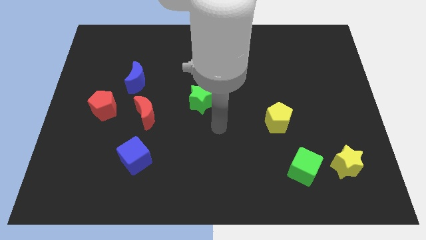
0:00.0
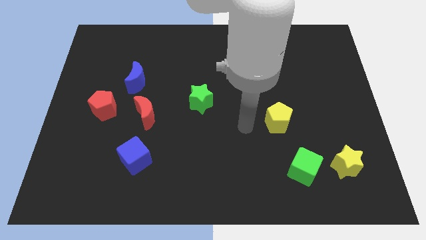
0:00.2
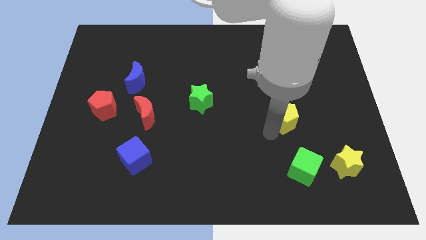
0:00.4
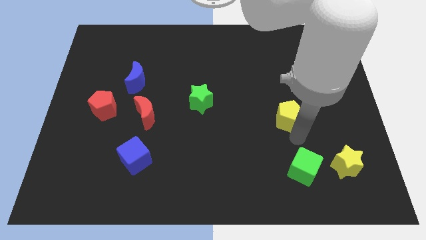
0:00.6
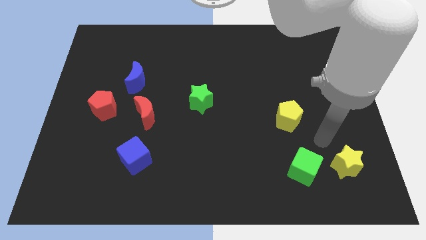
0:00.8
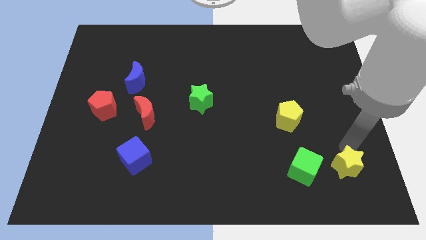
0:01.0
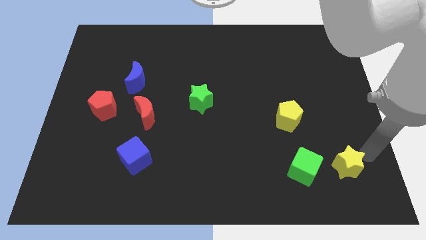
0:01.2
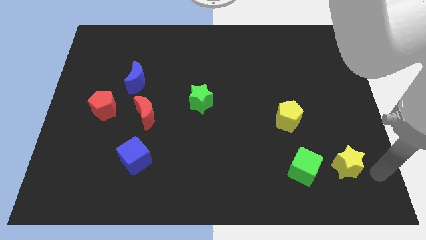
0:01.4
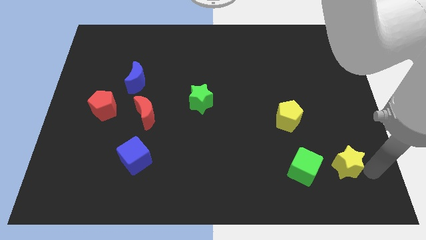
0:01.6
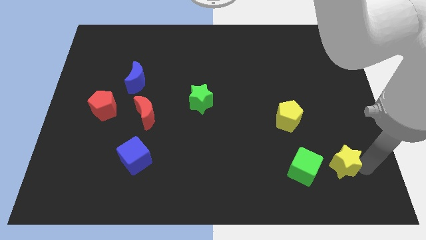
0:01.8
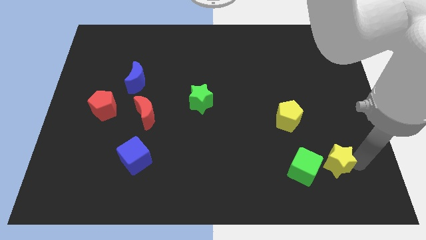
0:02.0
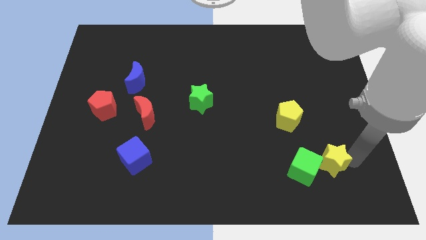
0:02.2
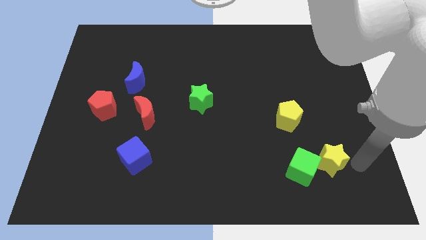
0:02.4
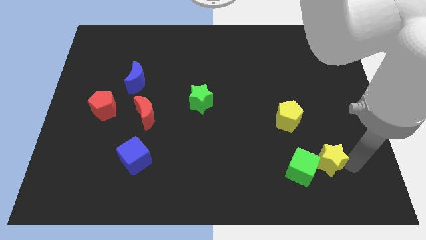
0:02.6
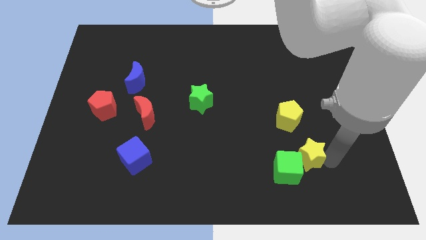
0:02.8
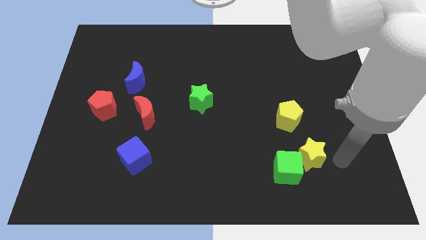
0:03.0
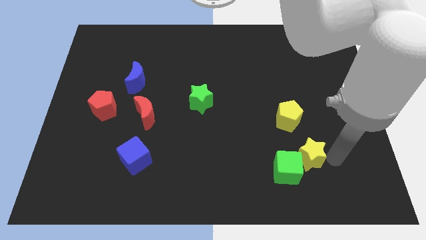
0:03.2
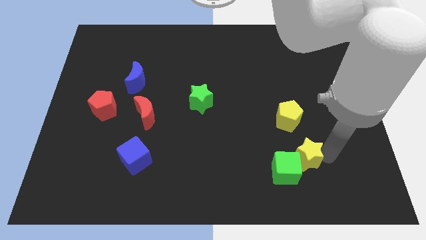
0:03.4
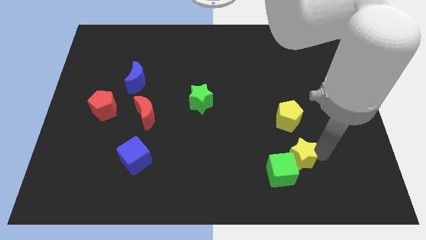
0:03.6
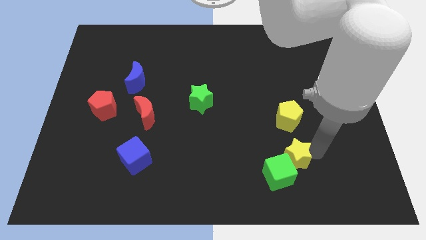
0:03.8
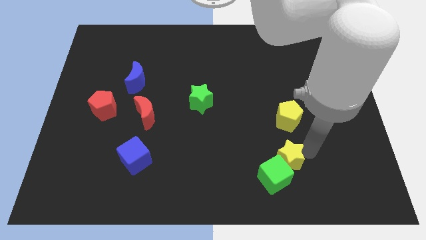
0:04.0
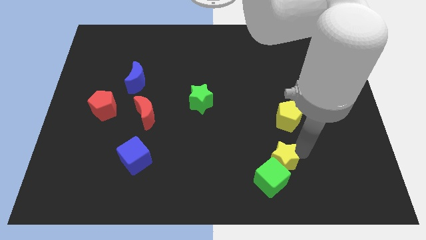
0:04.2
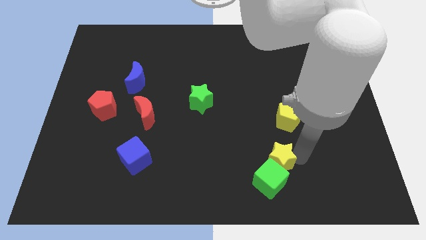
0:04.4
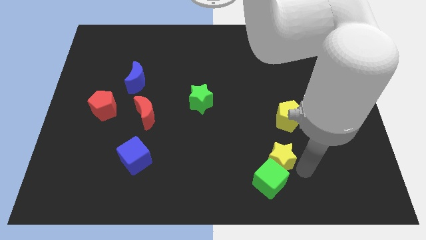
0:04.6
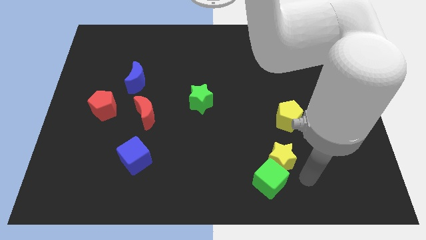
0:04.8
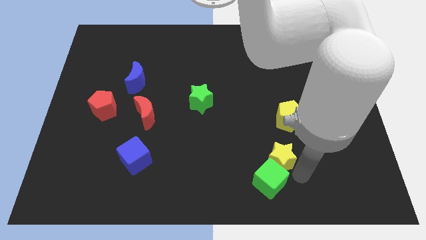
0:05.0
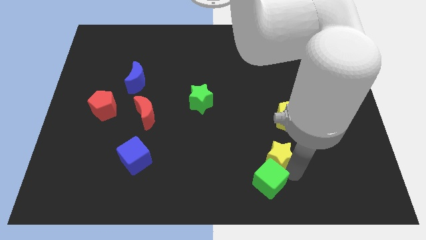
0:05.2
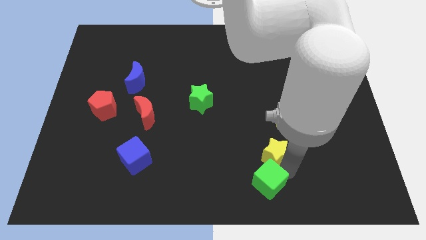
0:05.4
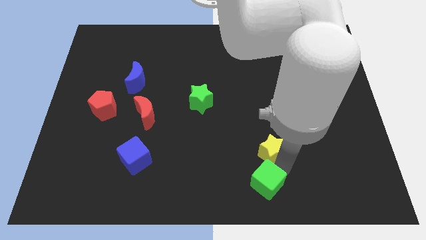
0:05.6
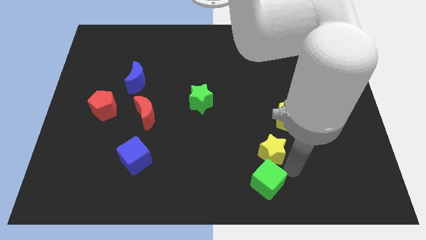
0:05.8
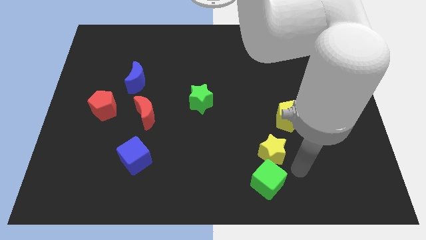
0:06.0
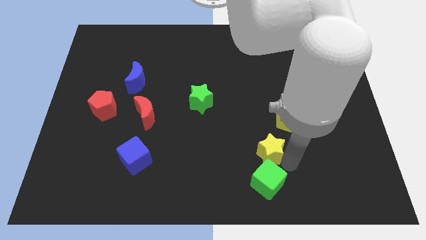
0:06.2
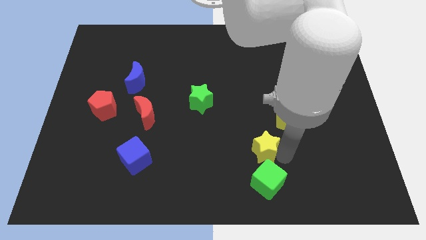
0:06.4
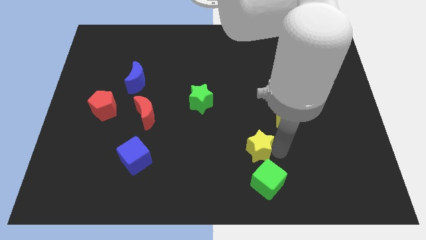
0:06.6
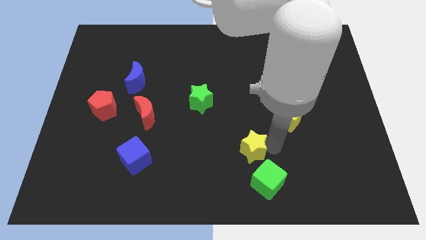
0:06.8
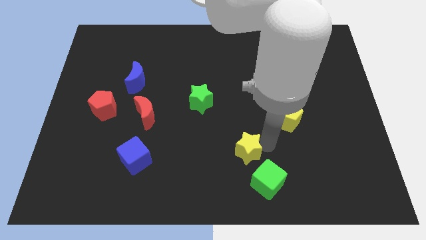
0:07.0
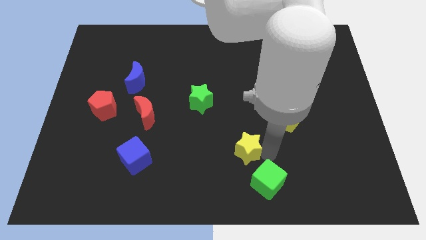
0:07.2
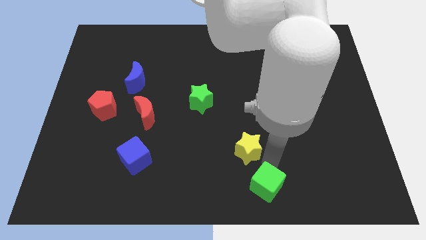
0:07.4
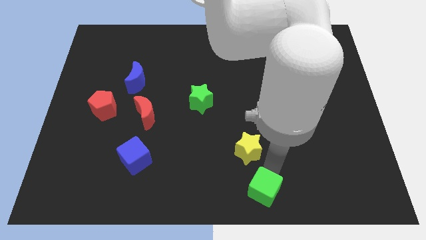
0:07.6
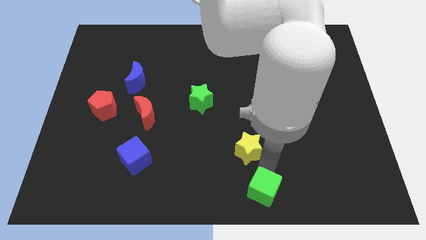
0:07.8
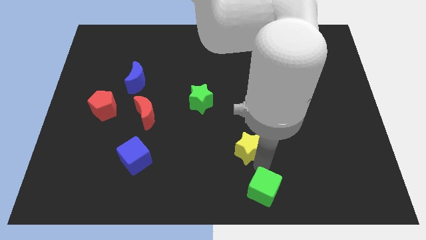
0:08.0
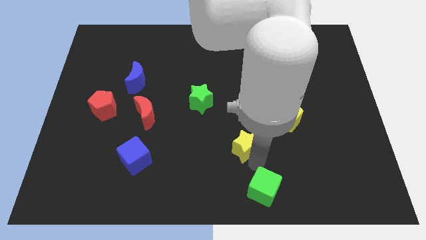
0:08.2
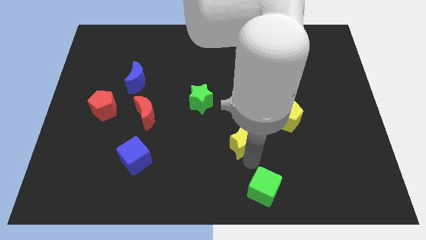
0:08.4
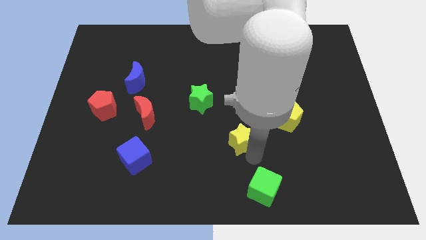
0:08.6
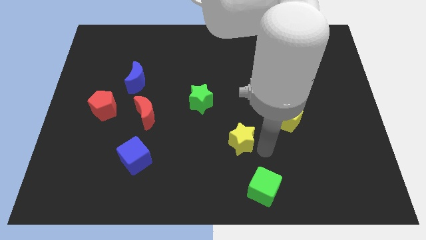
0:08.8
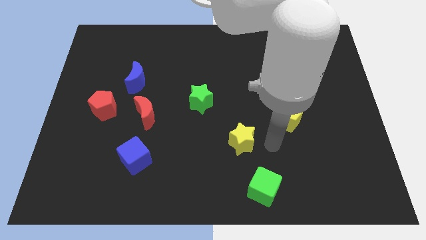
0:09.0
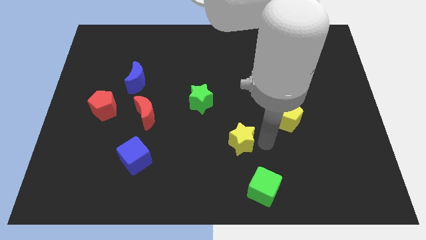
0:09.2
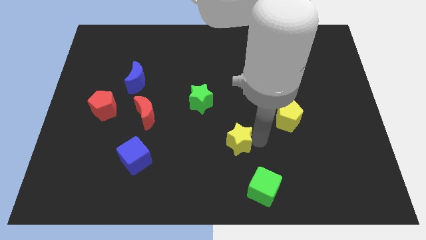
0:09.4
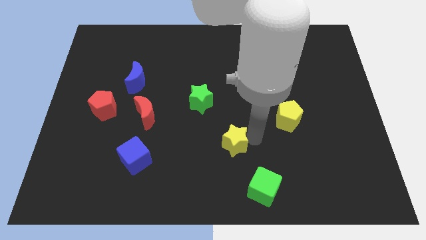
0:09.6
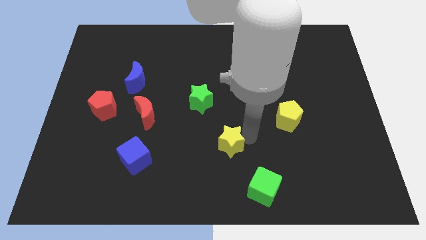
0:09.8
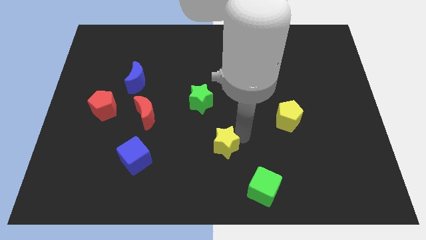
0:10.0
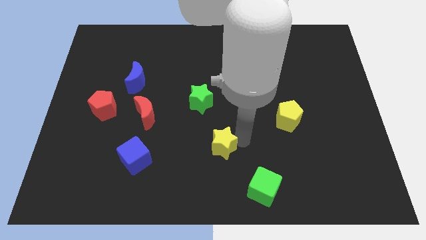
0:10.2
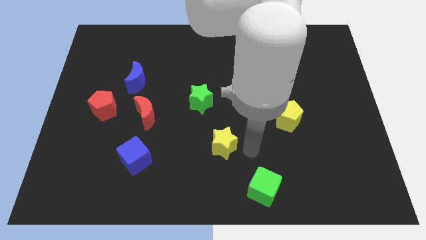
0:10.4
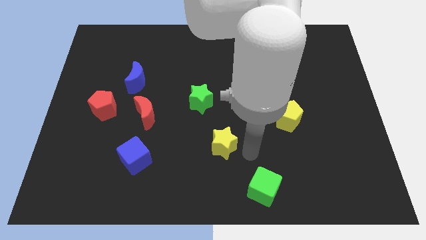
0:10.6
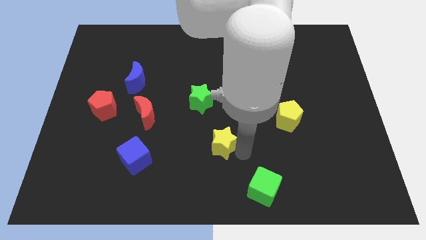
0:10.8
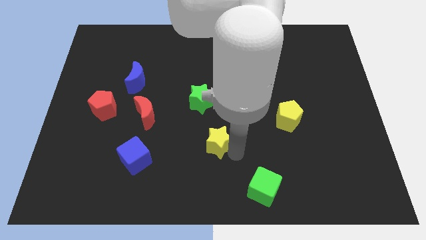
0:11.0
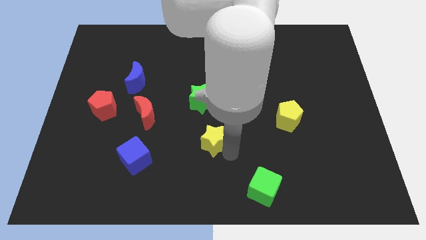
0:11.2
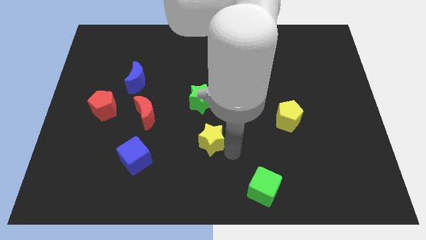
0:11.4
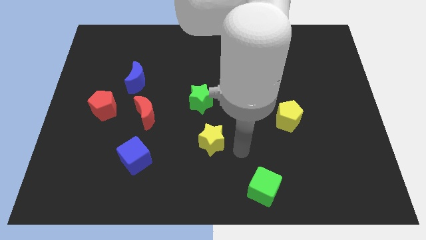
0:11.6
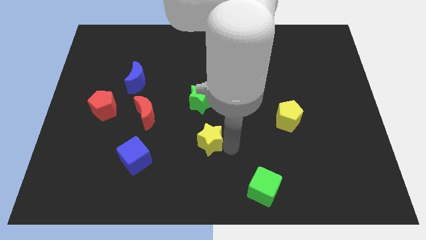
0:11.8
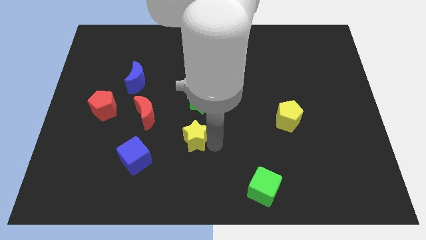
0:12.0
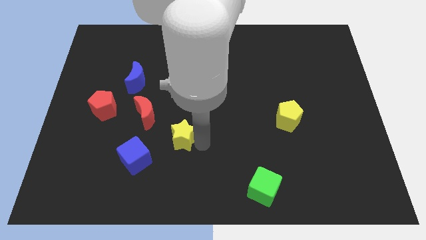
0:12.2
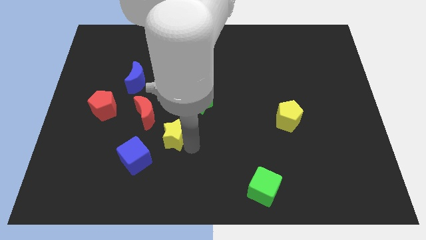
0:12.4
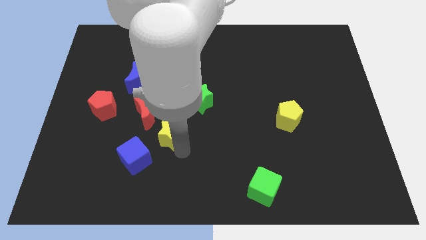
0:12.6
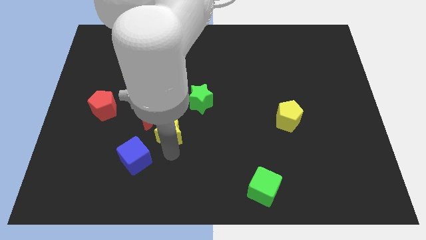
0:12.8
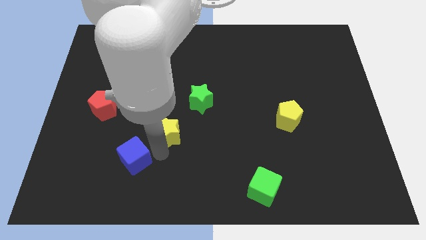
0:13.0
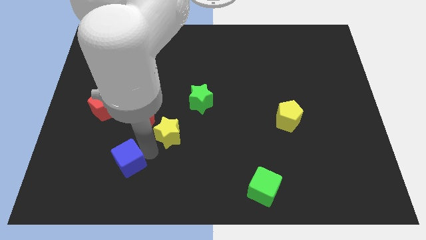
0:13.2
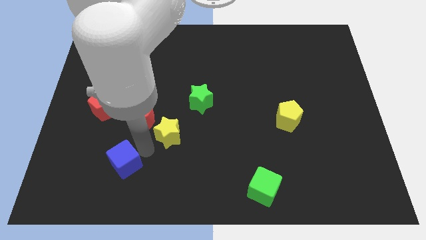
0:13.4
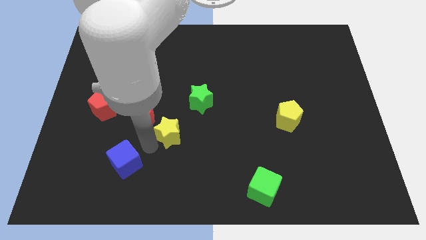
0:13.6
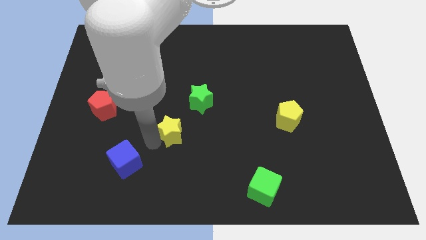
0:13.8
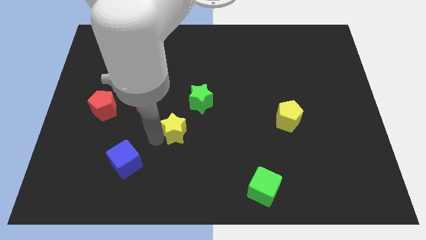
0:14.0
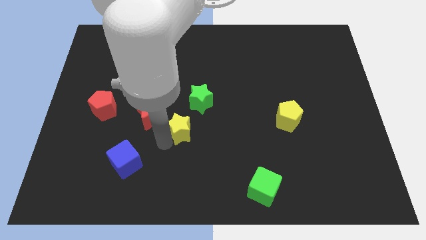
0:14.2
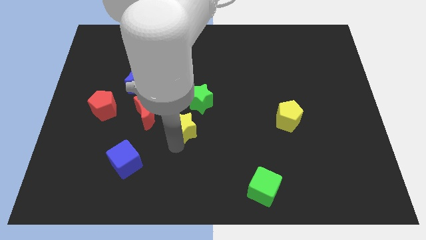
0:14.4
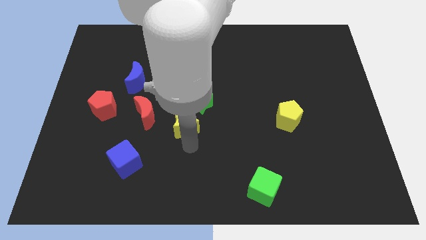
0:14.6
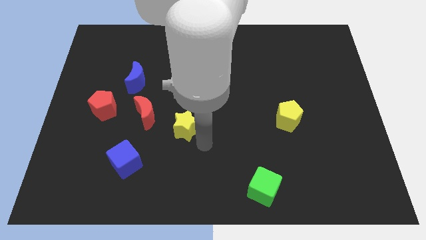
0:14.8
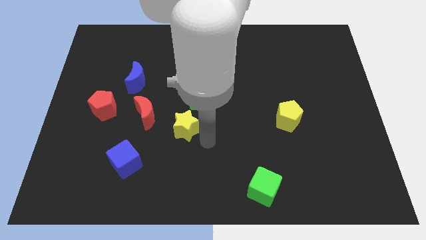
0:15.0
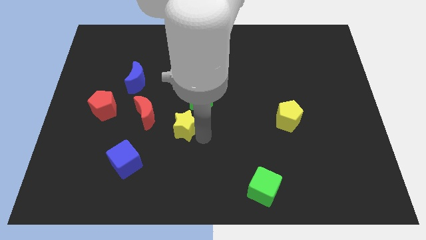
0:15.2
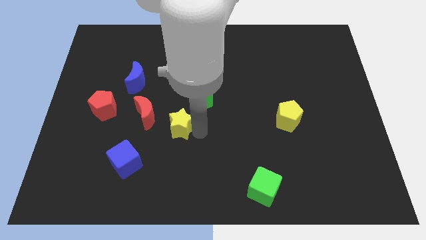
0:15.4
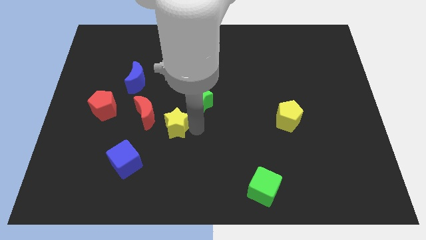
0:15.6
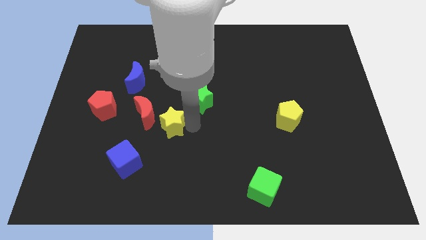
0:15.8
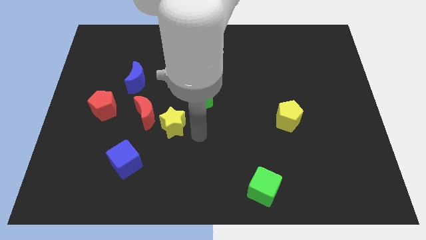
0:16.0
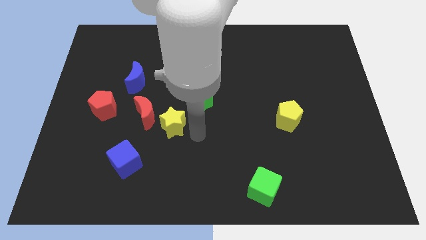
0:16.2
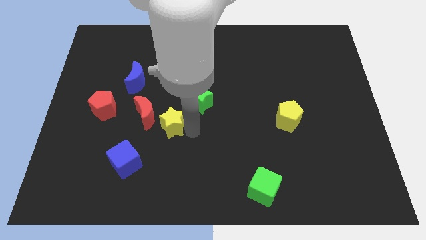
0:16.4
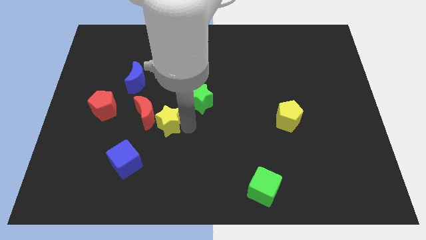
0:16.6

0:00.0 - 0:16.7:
move the yellow star next to the red moon
